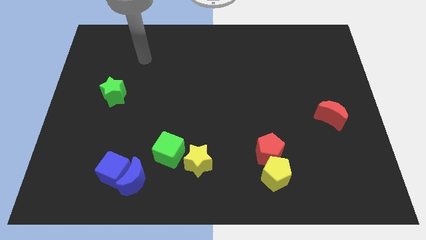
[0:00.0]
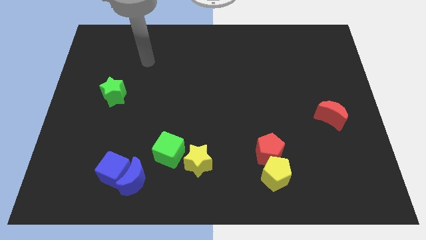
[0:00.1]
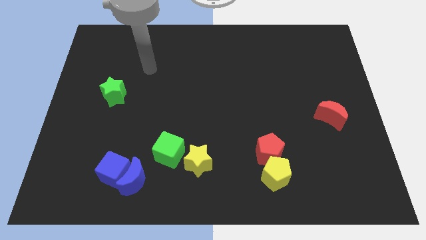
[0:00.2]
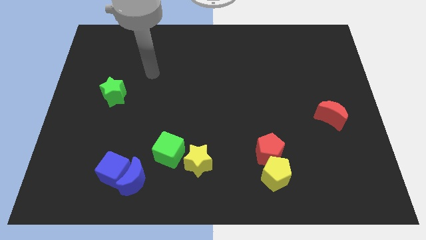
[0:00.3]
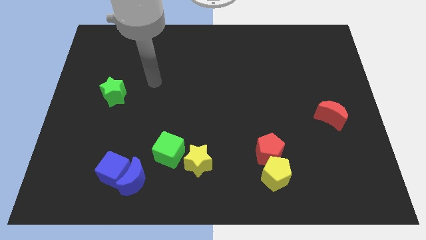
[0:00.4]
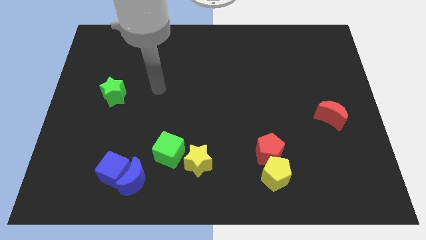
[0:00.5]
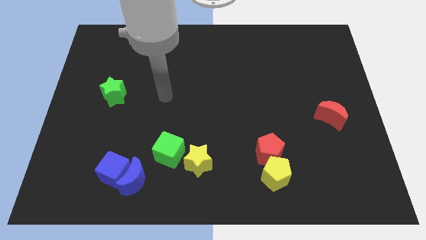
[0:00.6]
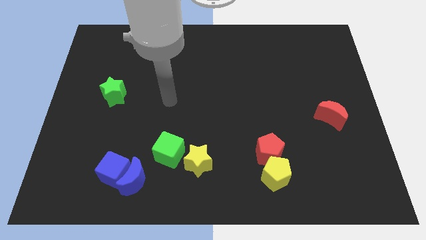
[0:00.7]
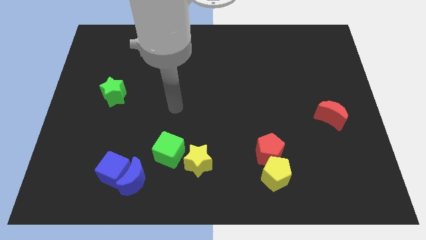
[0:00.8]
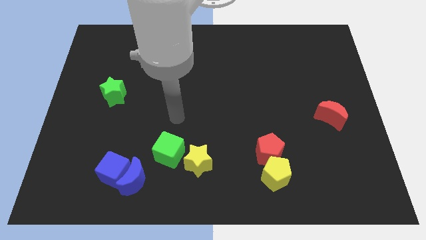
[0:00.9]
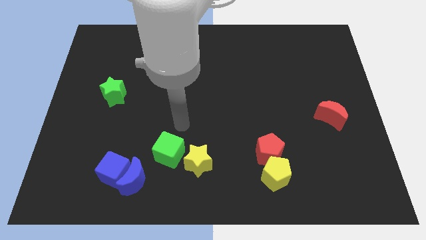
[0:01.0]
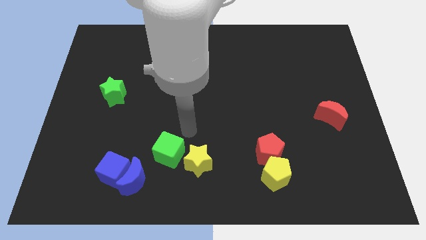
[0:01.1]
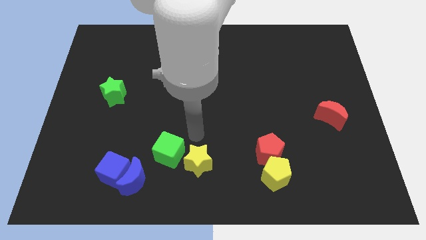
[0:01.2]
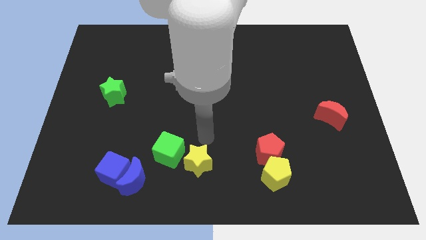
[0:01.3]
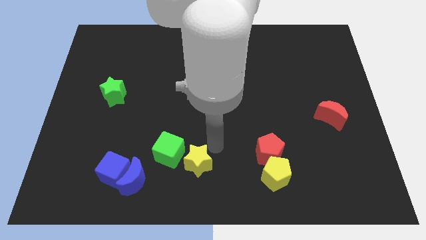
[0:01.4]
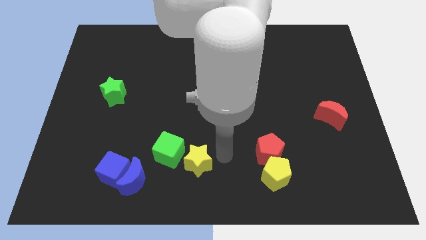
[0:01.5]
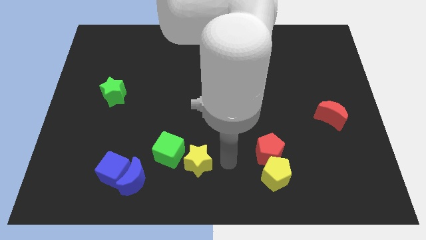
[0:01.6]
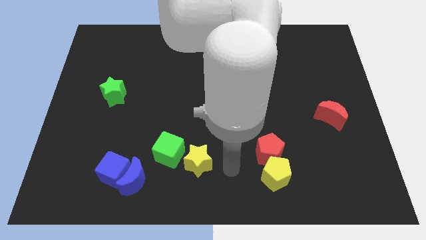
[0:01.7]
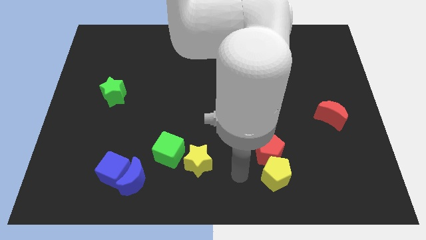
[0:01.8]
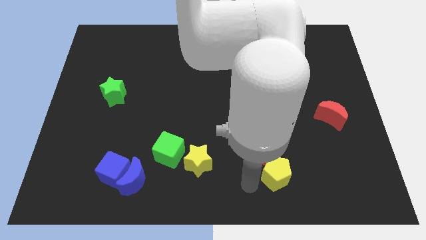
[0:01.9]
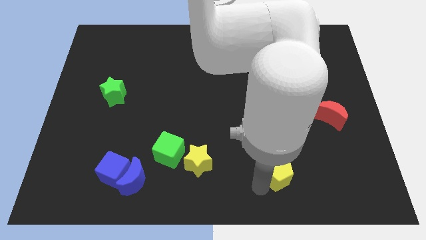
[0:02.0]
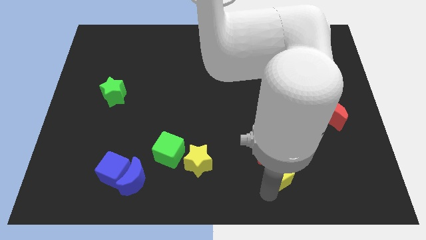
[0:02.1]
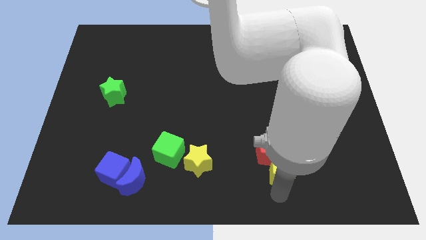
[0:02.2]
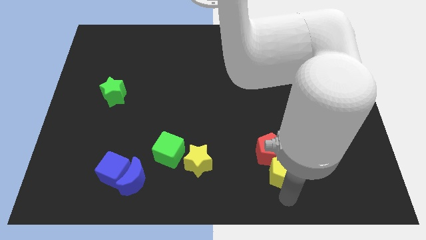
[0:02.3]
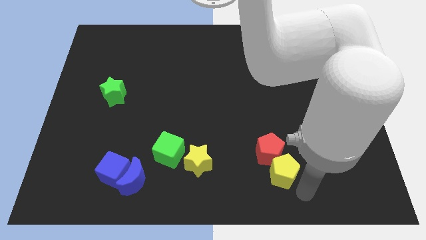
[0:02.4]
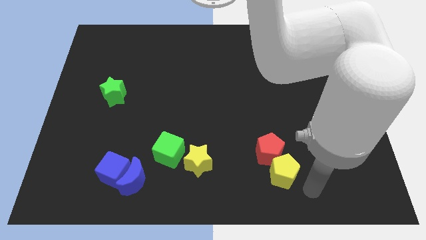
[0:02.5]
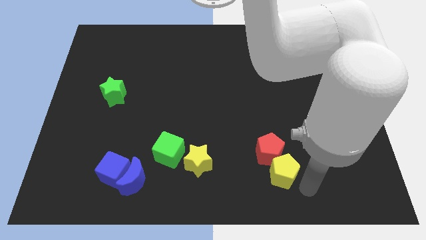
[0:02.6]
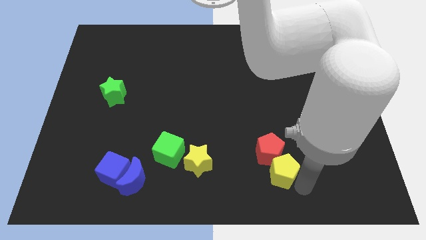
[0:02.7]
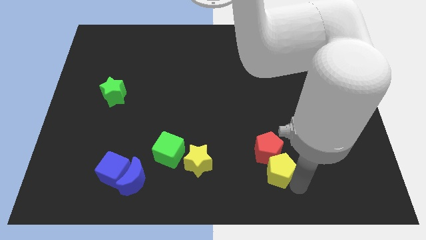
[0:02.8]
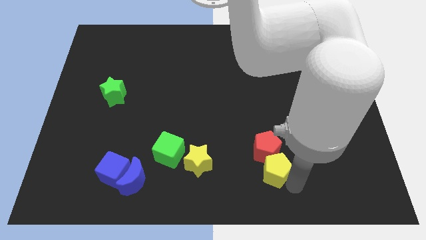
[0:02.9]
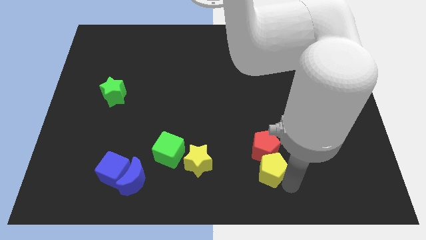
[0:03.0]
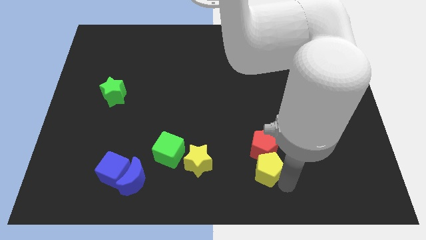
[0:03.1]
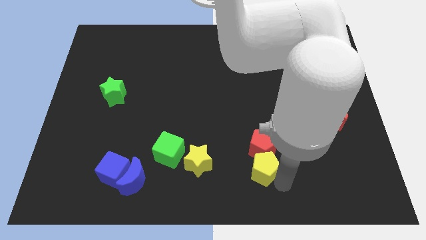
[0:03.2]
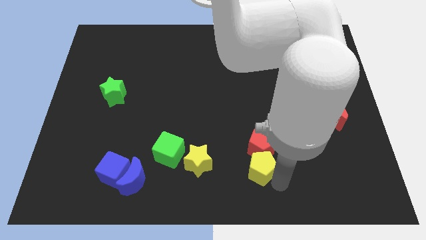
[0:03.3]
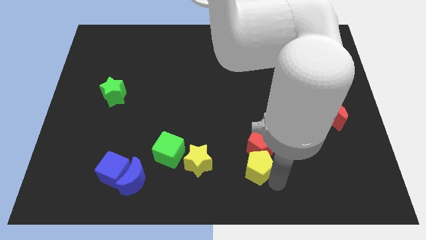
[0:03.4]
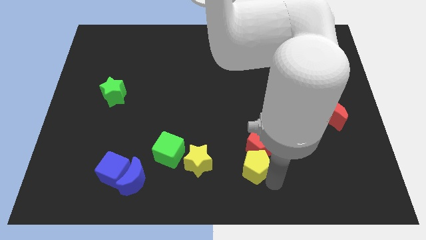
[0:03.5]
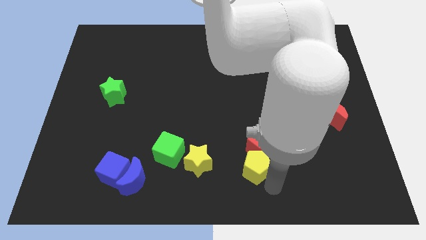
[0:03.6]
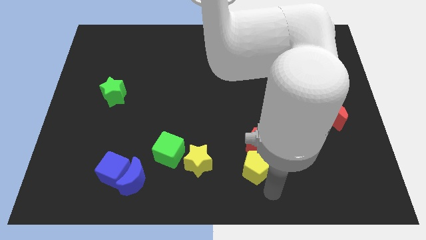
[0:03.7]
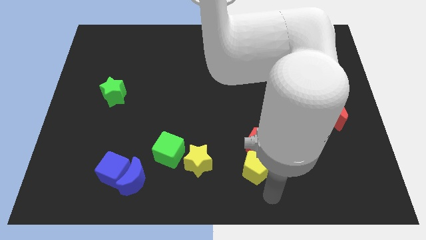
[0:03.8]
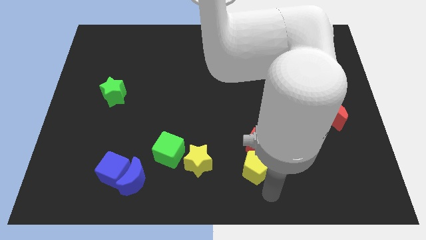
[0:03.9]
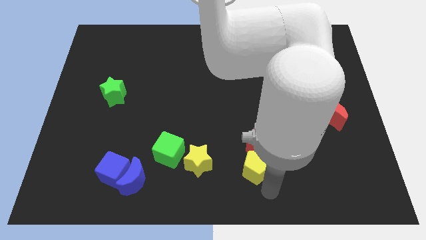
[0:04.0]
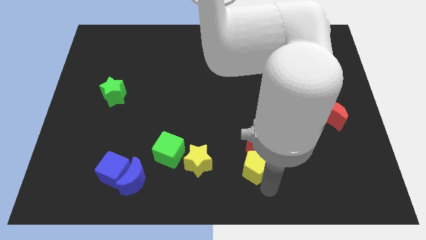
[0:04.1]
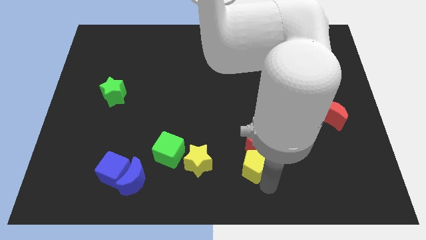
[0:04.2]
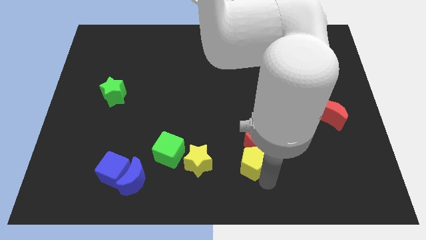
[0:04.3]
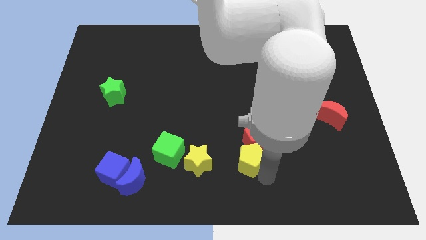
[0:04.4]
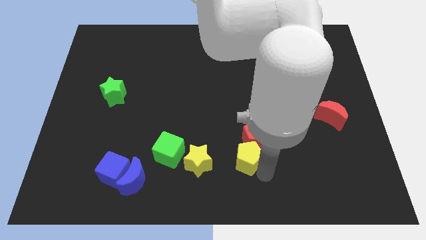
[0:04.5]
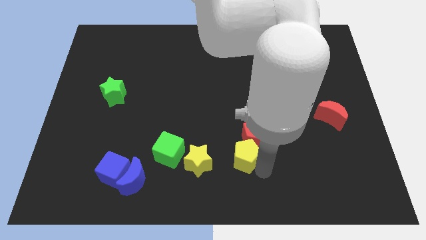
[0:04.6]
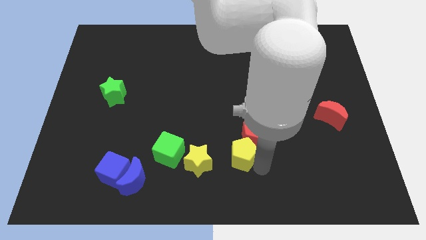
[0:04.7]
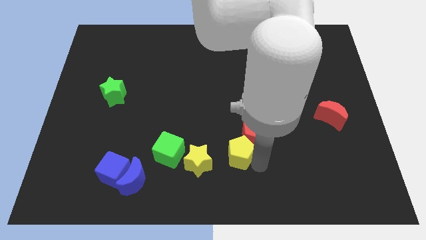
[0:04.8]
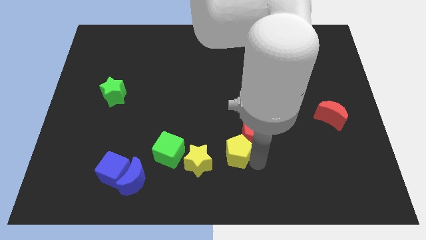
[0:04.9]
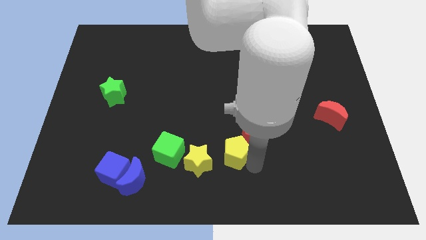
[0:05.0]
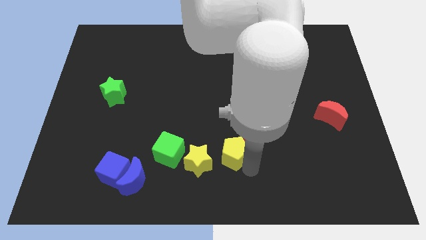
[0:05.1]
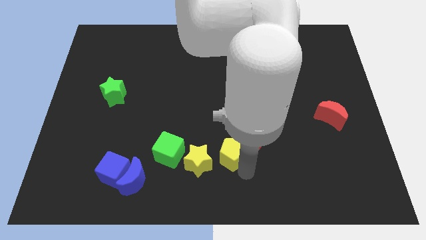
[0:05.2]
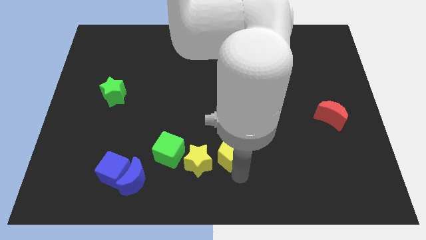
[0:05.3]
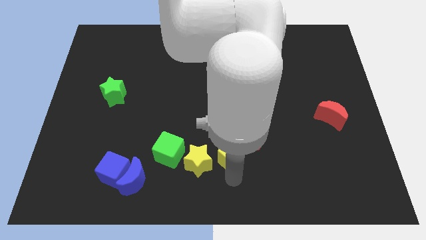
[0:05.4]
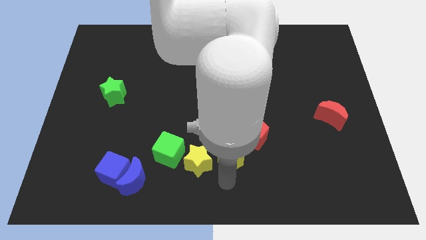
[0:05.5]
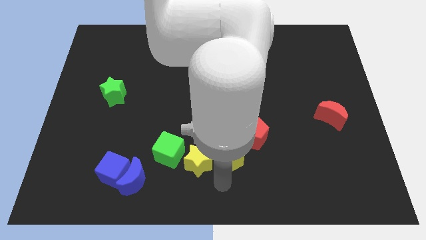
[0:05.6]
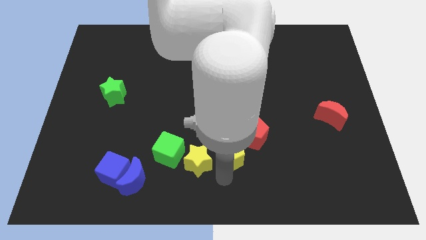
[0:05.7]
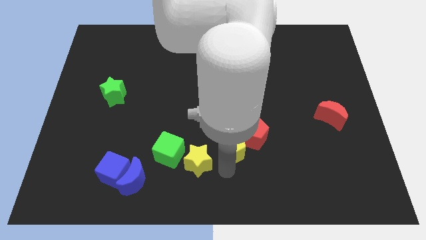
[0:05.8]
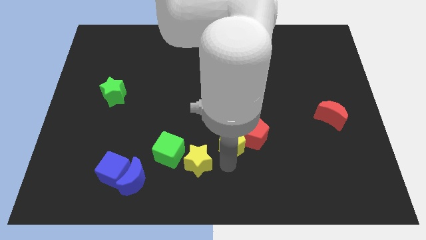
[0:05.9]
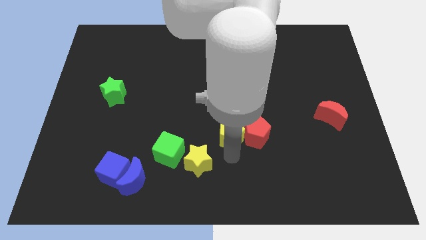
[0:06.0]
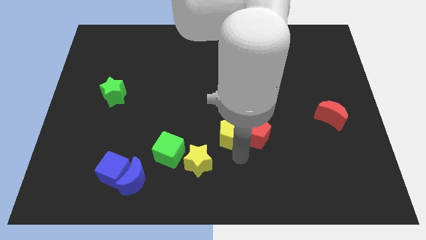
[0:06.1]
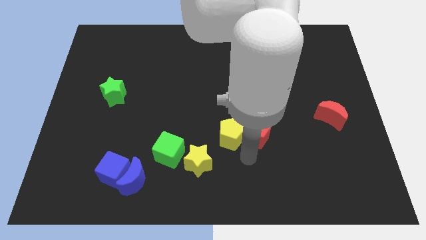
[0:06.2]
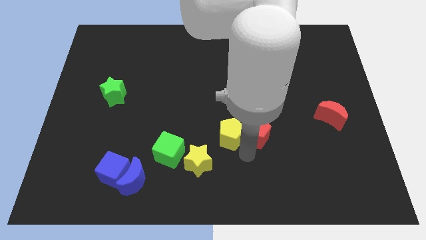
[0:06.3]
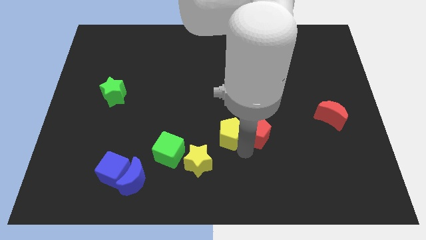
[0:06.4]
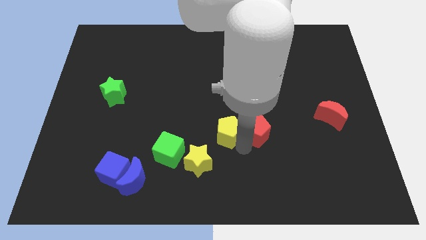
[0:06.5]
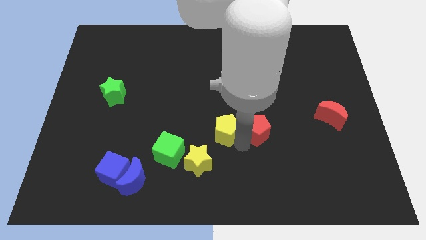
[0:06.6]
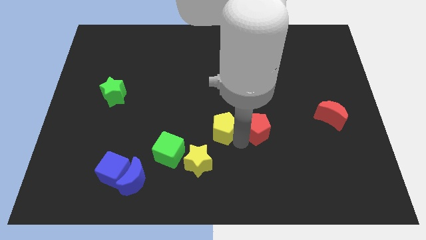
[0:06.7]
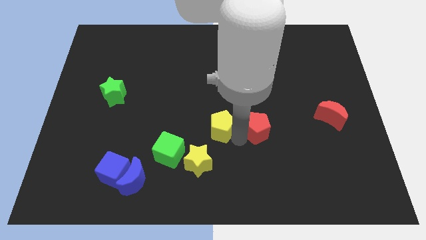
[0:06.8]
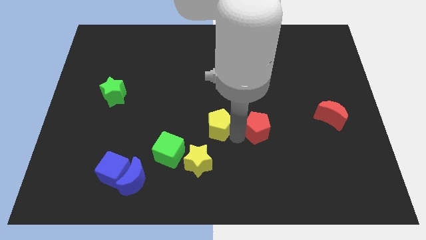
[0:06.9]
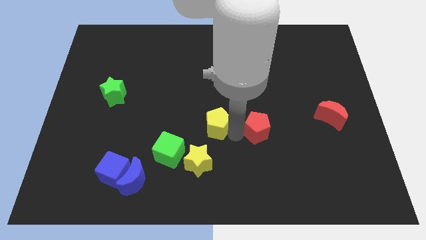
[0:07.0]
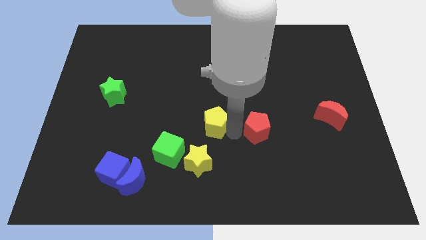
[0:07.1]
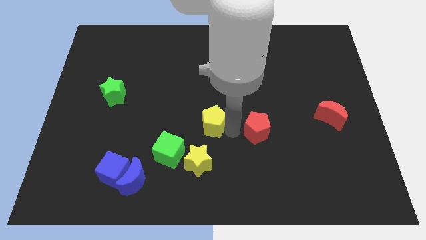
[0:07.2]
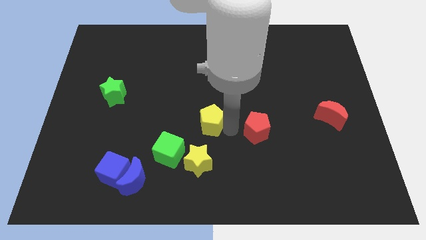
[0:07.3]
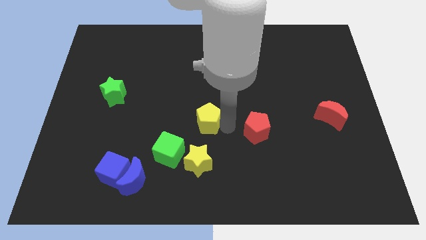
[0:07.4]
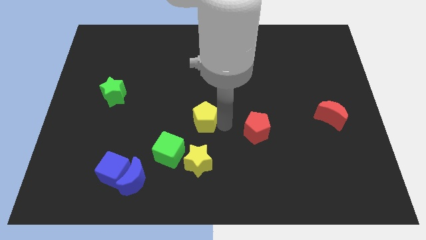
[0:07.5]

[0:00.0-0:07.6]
move the yellow pentagon diagonally up and left

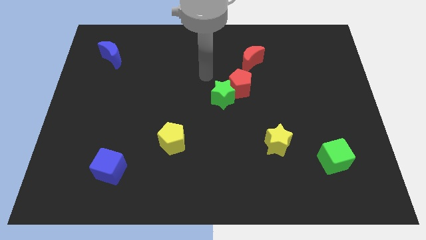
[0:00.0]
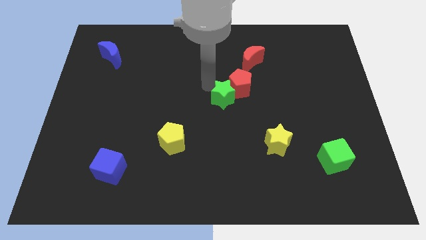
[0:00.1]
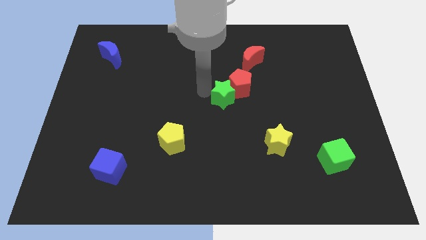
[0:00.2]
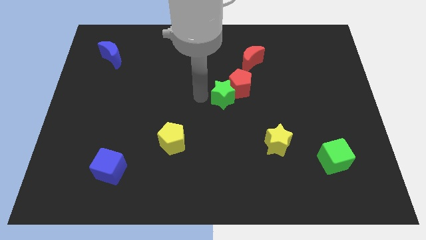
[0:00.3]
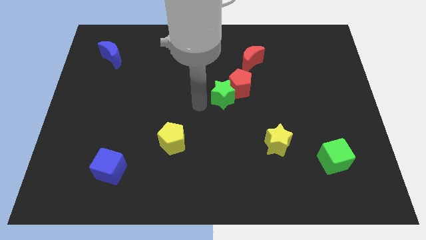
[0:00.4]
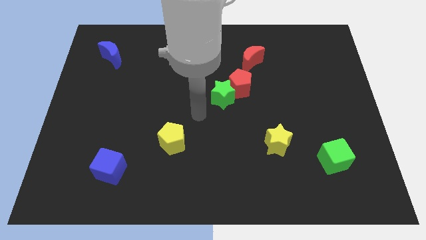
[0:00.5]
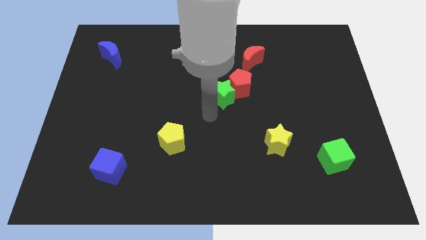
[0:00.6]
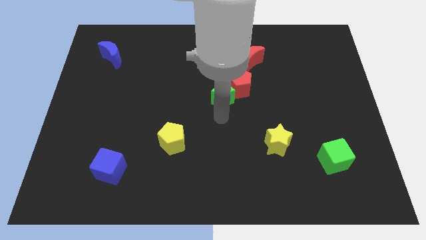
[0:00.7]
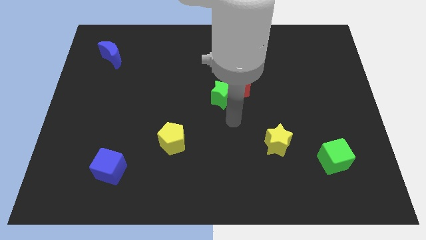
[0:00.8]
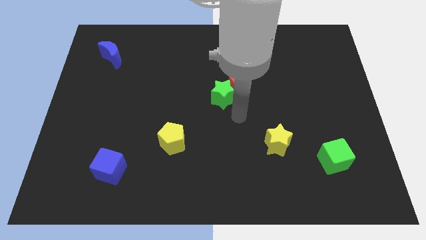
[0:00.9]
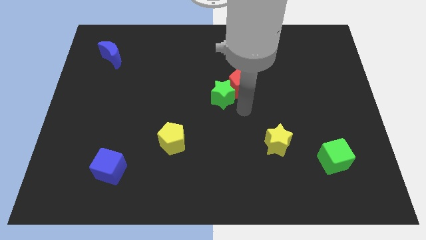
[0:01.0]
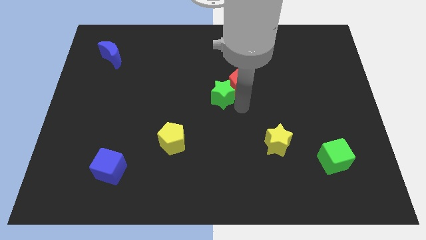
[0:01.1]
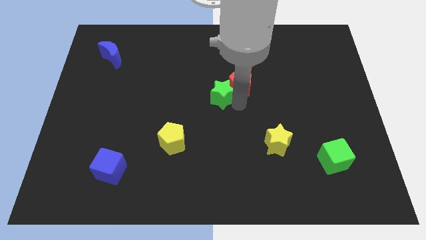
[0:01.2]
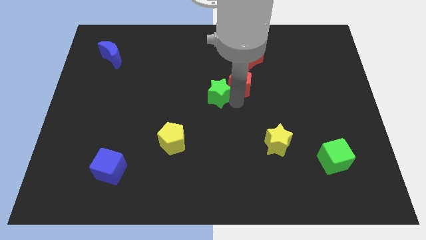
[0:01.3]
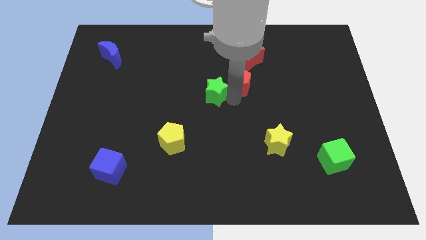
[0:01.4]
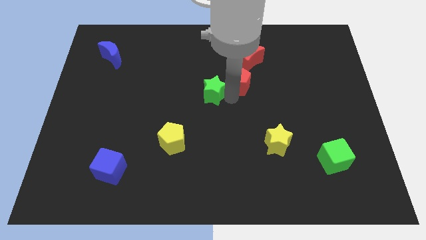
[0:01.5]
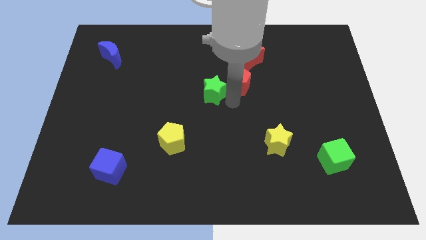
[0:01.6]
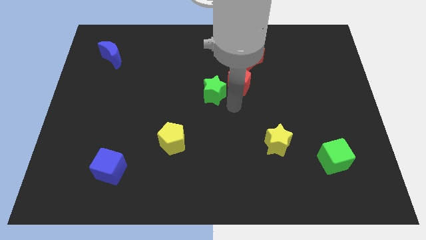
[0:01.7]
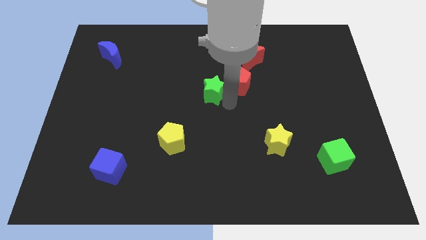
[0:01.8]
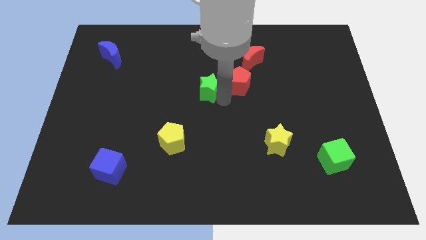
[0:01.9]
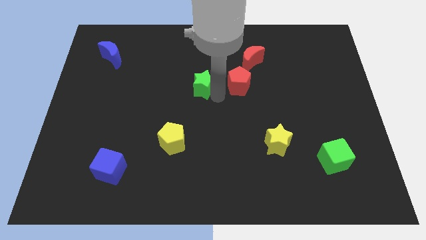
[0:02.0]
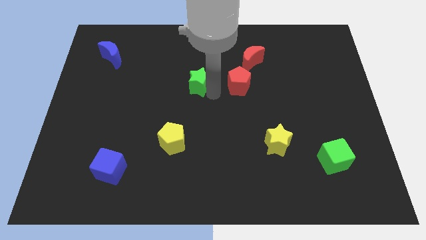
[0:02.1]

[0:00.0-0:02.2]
move the green star slightly diagonally up and to the left
